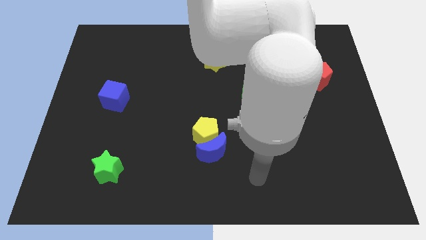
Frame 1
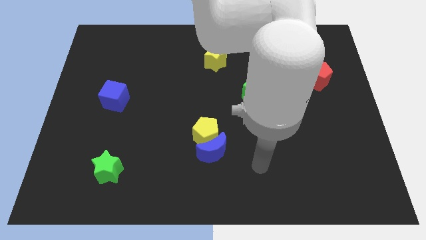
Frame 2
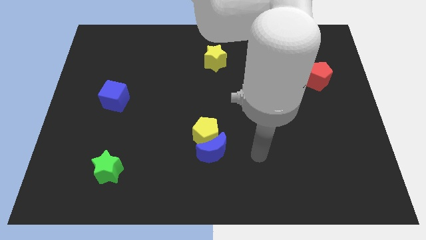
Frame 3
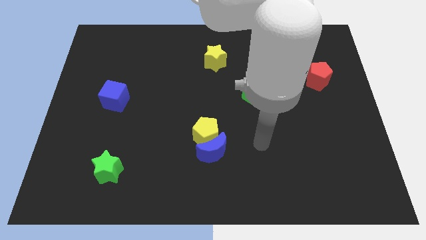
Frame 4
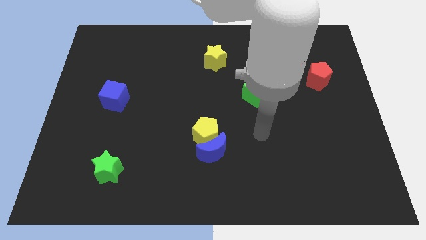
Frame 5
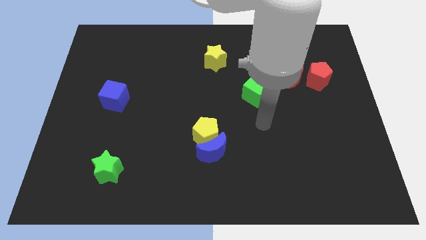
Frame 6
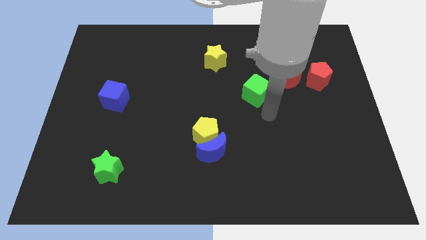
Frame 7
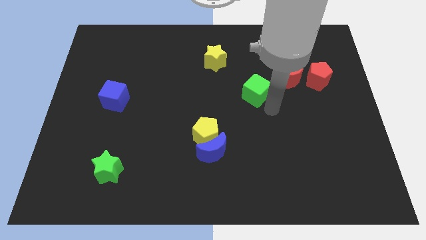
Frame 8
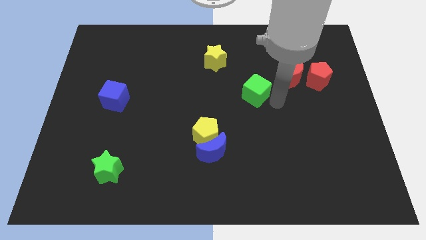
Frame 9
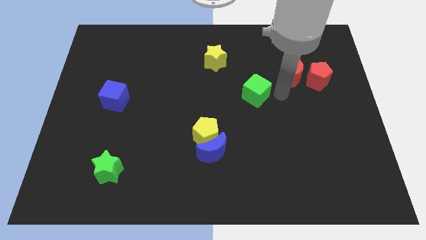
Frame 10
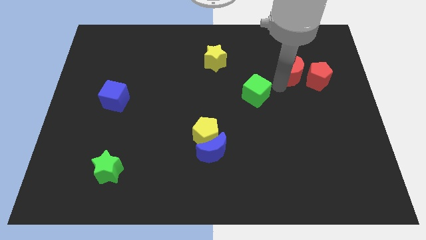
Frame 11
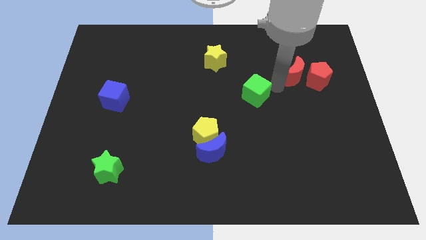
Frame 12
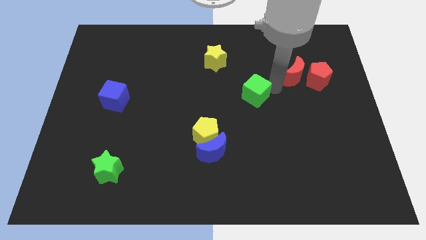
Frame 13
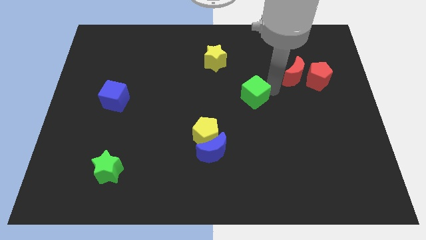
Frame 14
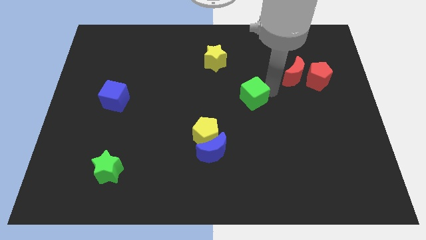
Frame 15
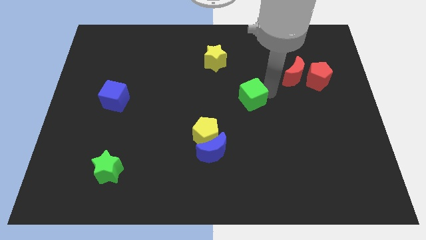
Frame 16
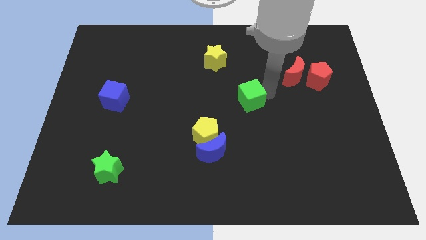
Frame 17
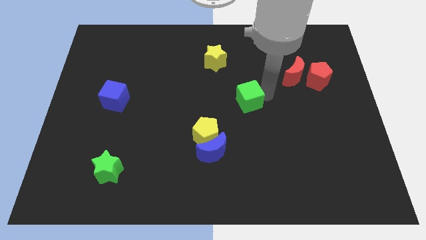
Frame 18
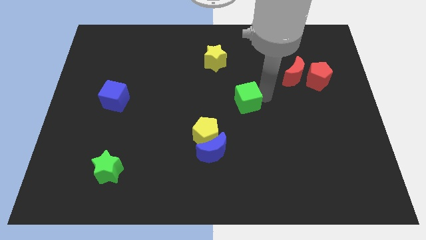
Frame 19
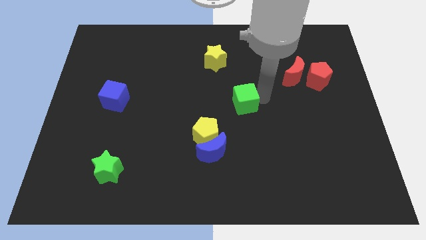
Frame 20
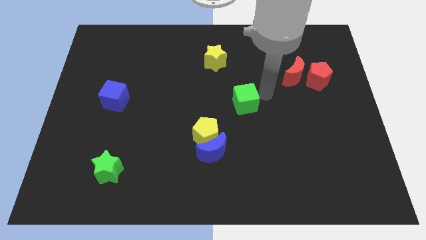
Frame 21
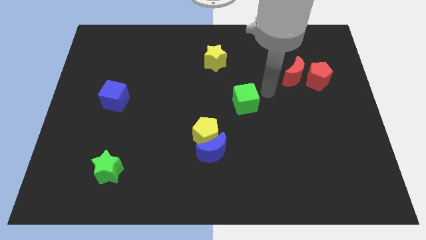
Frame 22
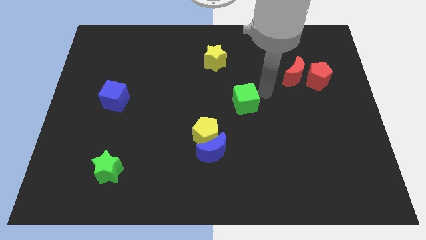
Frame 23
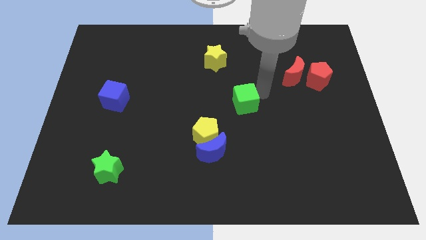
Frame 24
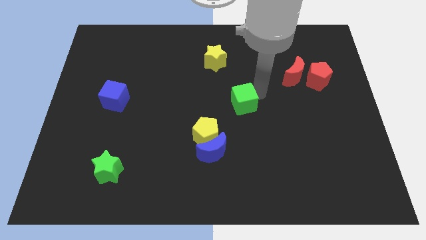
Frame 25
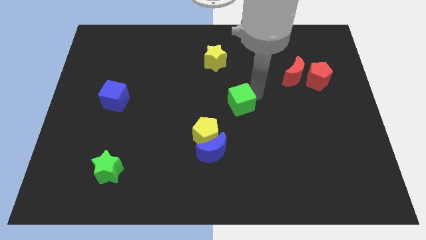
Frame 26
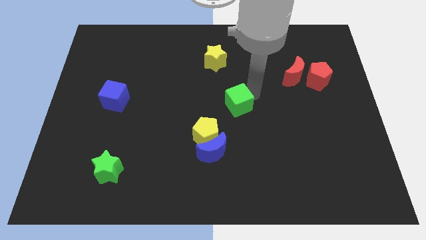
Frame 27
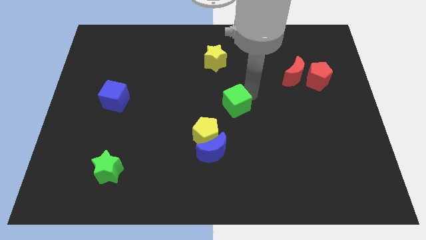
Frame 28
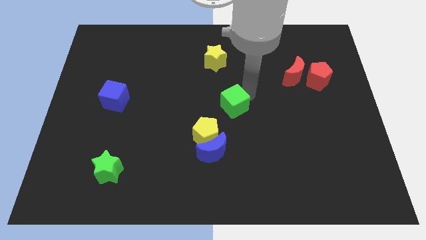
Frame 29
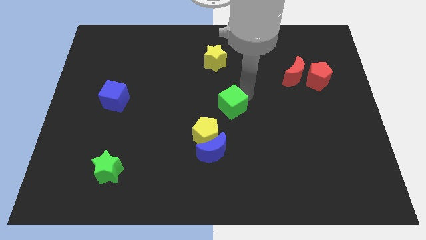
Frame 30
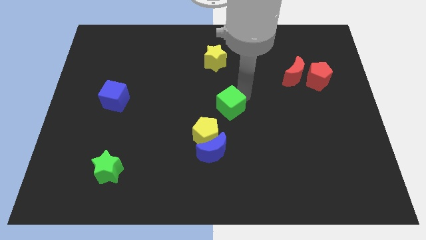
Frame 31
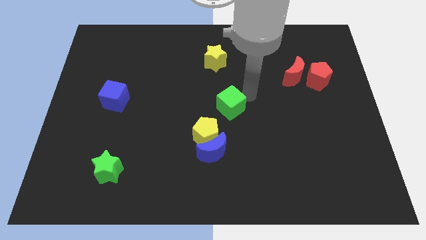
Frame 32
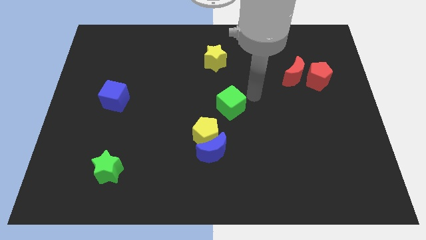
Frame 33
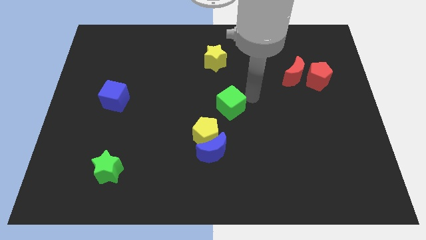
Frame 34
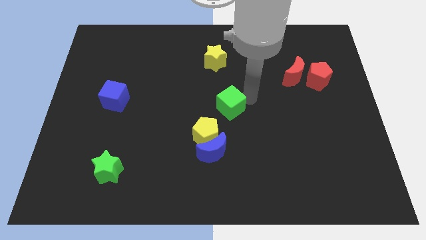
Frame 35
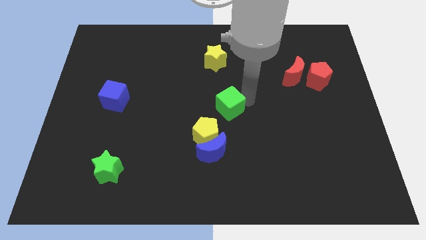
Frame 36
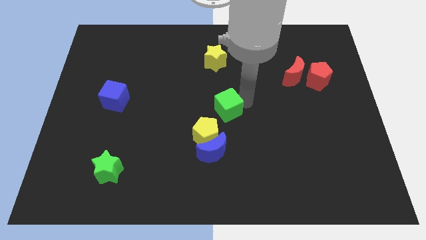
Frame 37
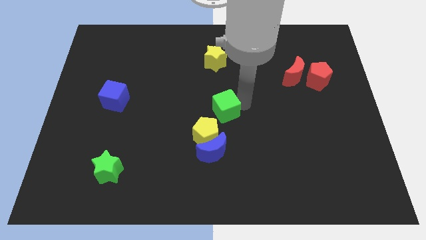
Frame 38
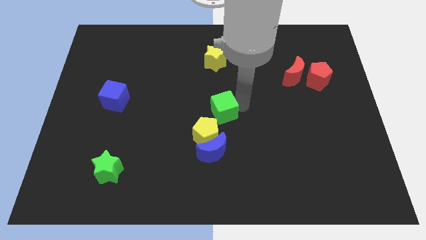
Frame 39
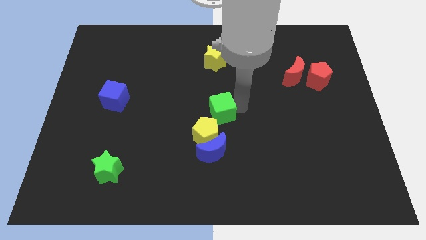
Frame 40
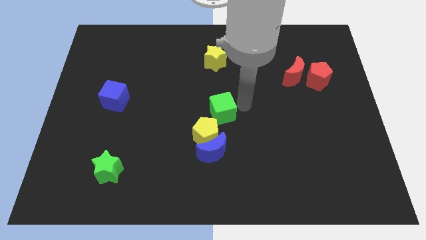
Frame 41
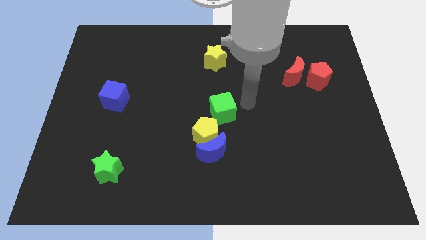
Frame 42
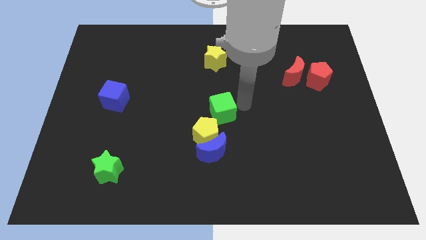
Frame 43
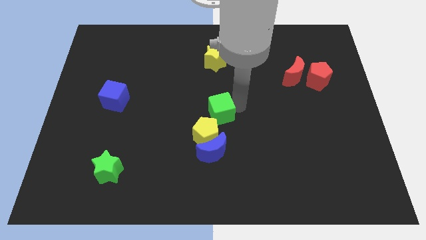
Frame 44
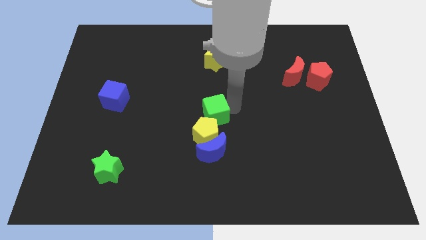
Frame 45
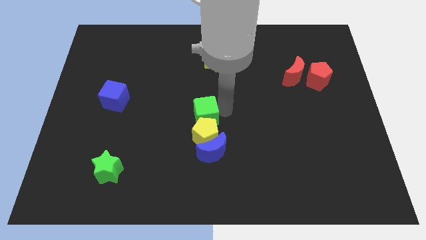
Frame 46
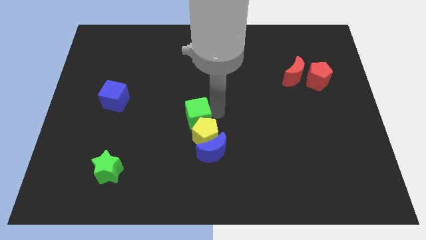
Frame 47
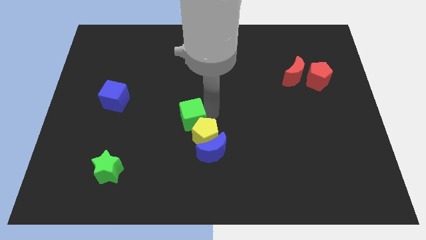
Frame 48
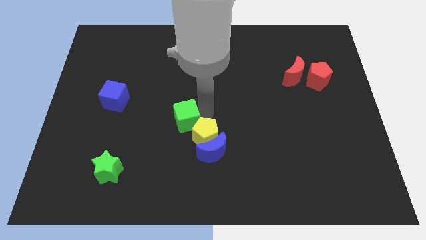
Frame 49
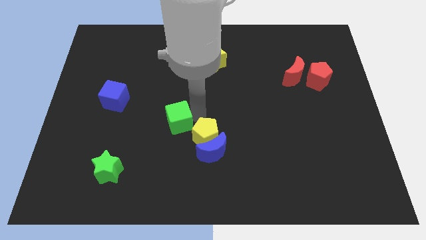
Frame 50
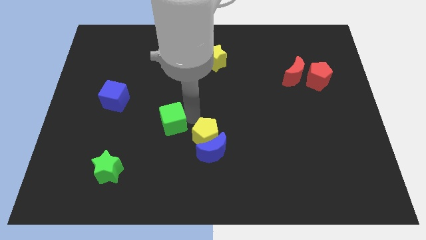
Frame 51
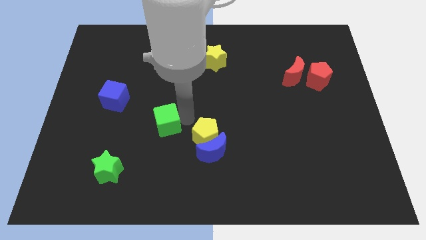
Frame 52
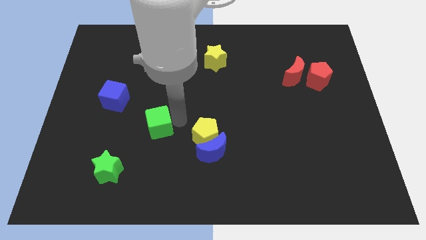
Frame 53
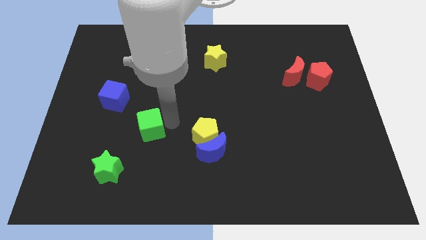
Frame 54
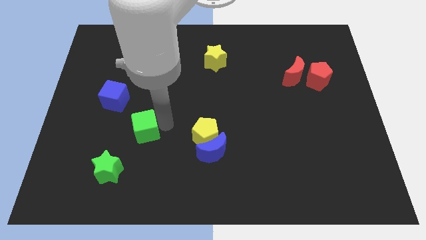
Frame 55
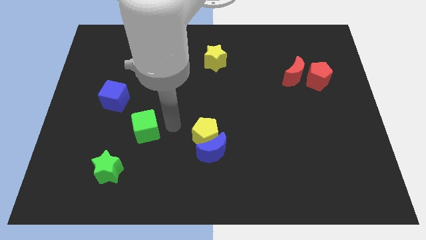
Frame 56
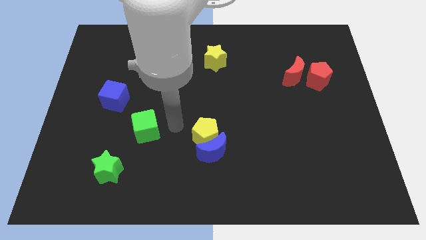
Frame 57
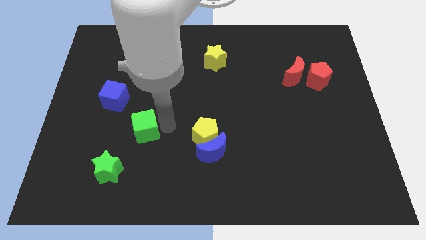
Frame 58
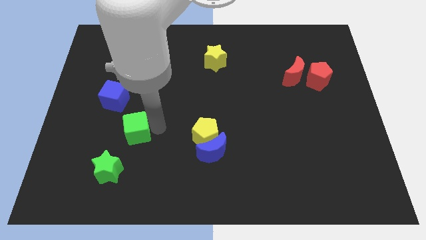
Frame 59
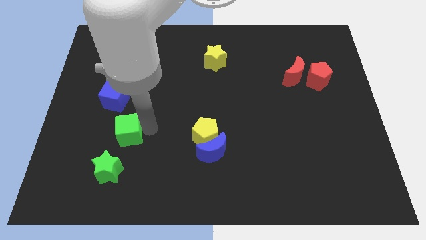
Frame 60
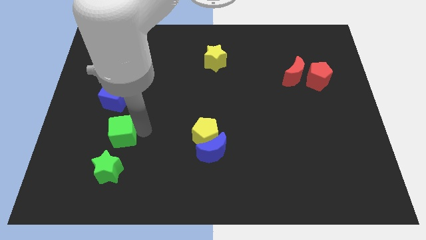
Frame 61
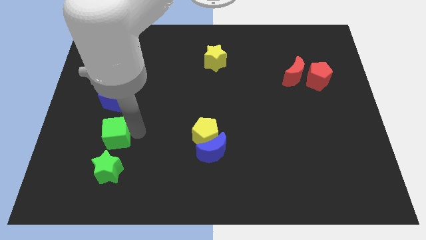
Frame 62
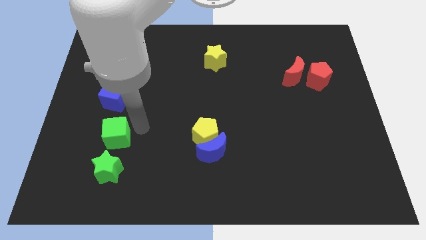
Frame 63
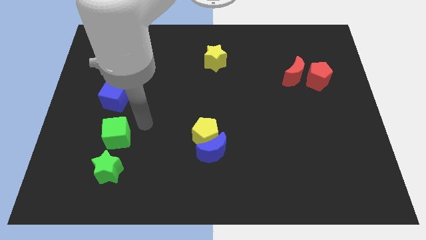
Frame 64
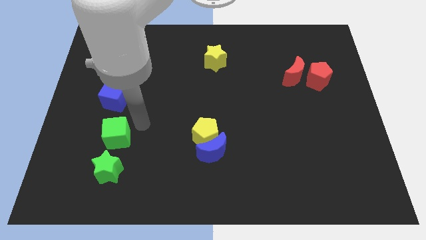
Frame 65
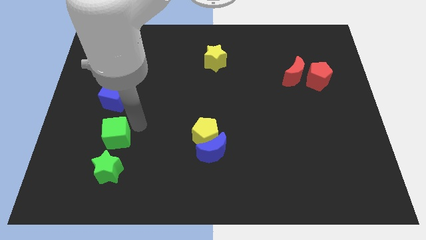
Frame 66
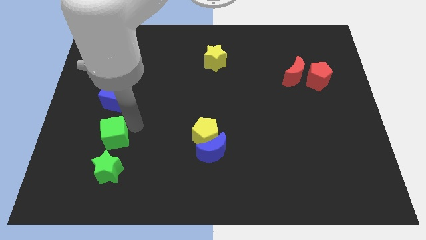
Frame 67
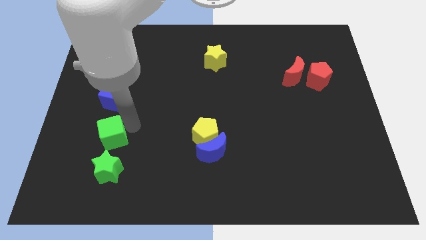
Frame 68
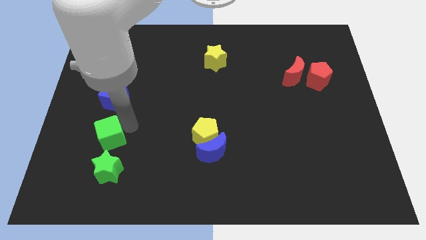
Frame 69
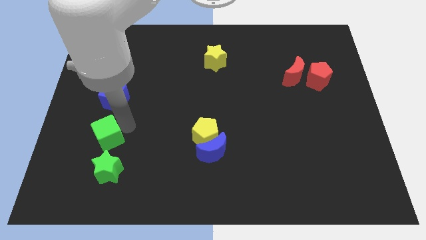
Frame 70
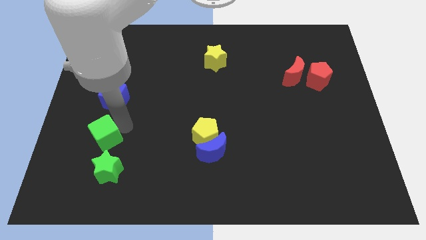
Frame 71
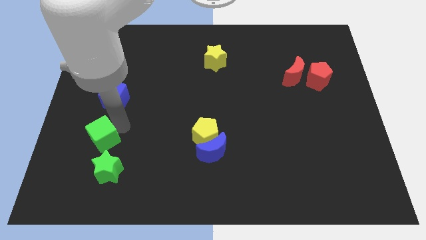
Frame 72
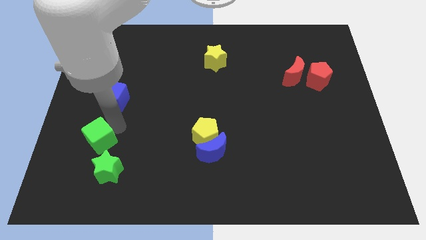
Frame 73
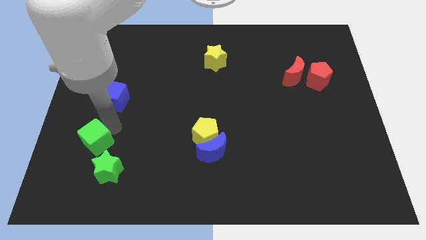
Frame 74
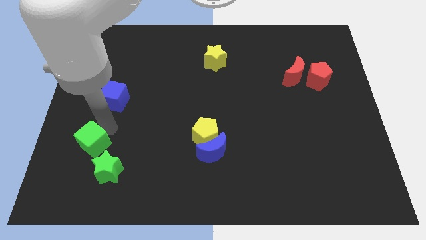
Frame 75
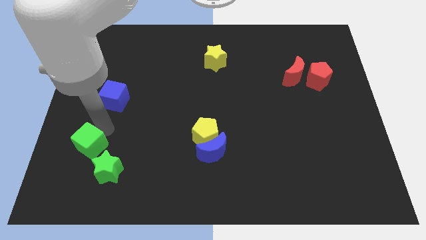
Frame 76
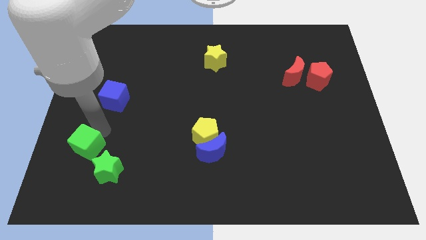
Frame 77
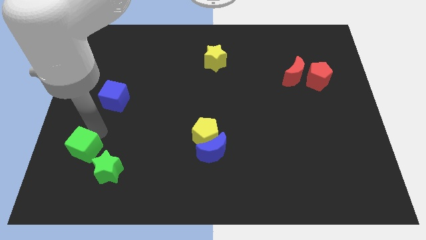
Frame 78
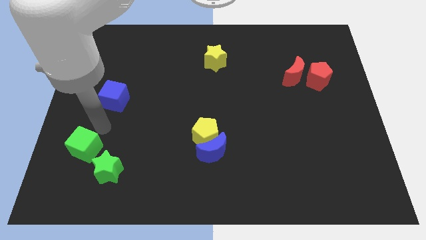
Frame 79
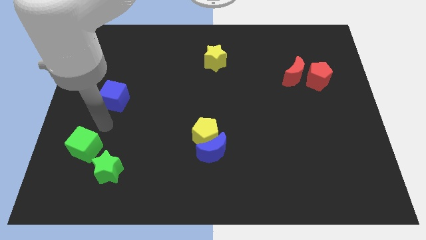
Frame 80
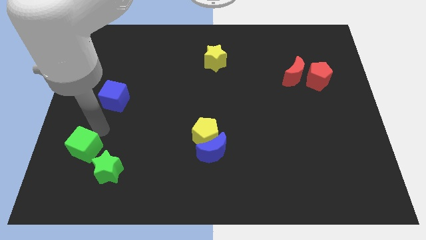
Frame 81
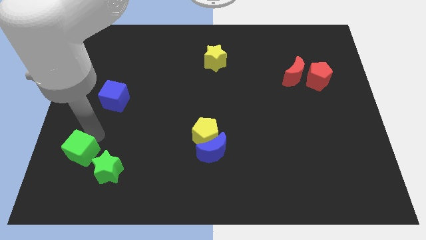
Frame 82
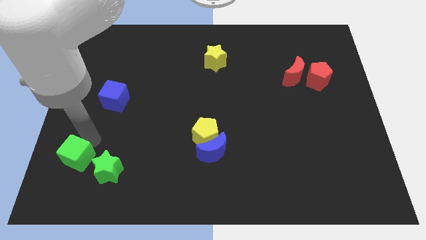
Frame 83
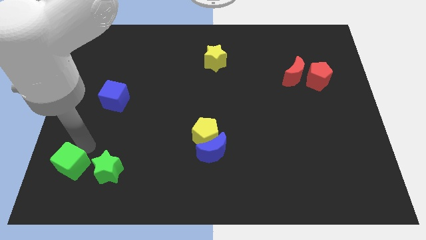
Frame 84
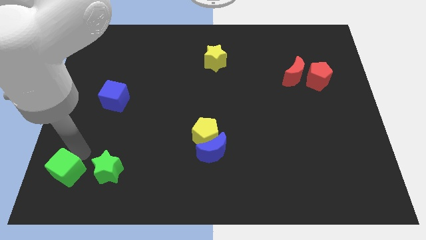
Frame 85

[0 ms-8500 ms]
move the green cube to the bottom left
